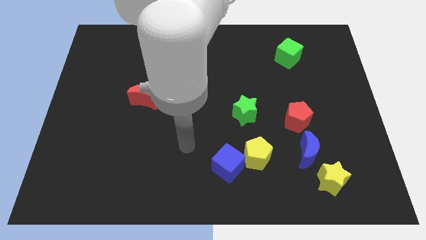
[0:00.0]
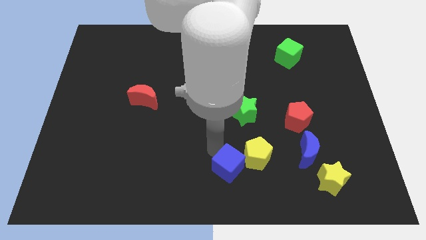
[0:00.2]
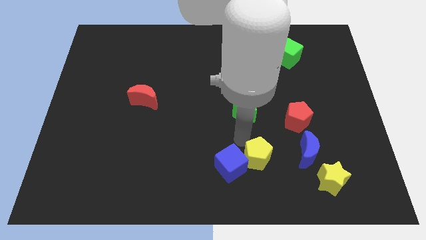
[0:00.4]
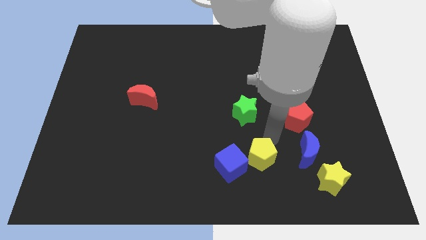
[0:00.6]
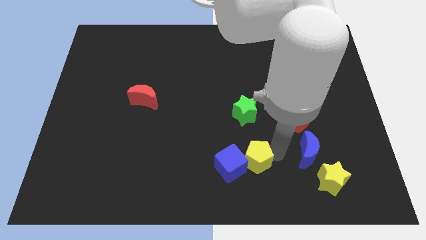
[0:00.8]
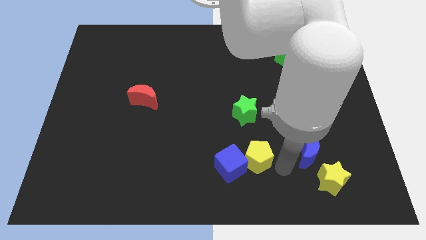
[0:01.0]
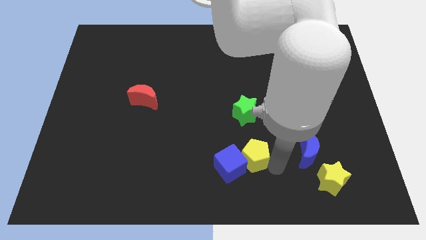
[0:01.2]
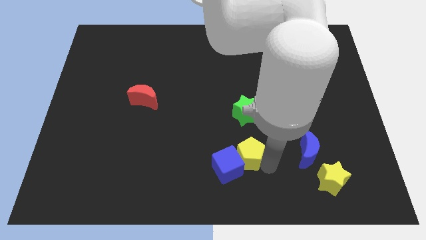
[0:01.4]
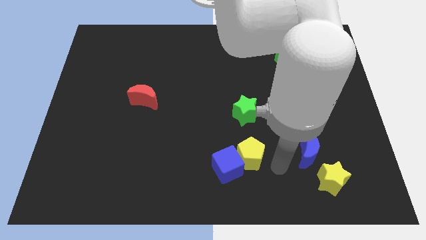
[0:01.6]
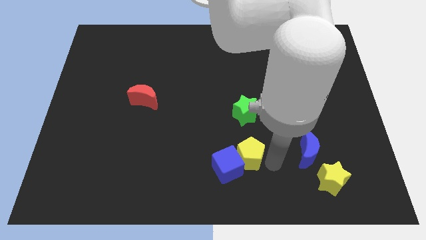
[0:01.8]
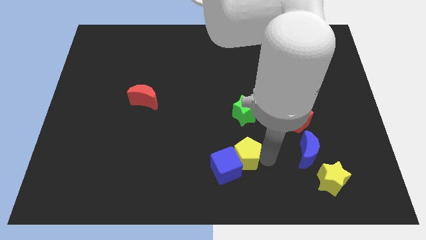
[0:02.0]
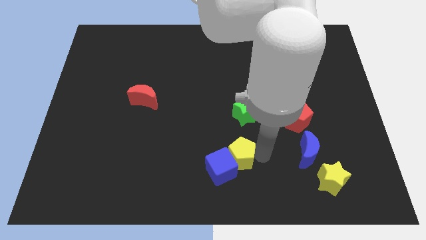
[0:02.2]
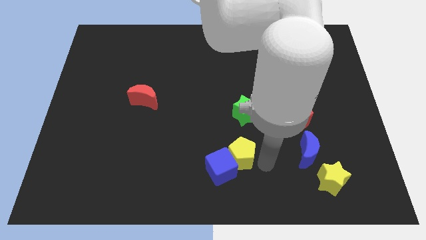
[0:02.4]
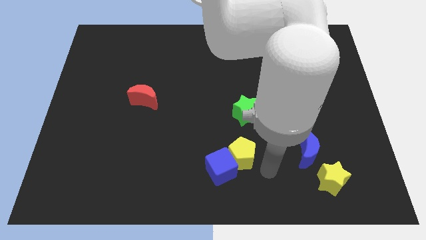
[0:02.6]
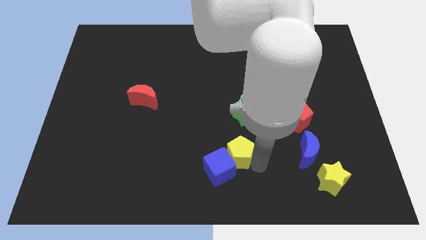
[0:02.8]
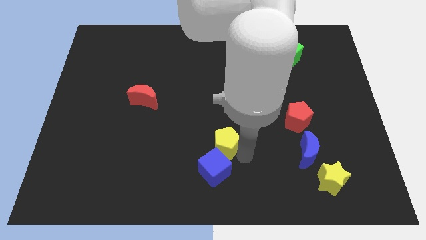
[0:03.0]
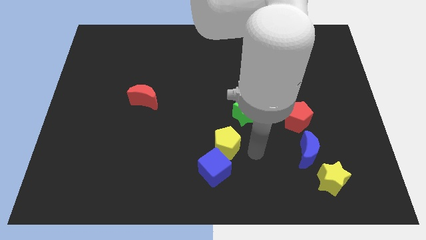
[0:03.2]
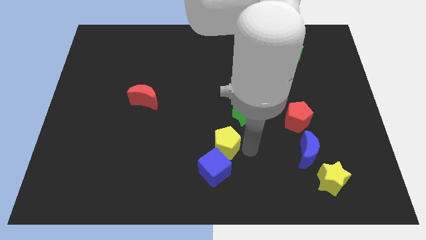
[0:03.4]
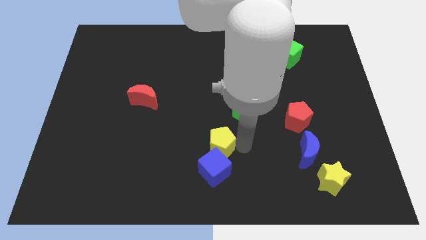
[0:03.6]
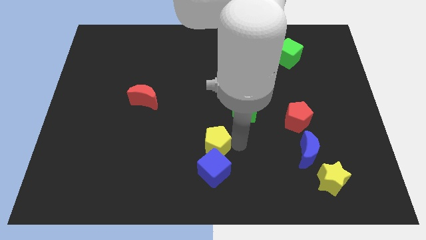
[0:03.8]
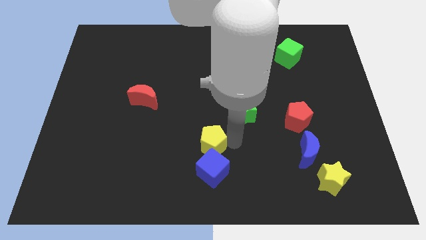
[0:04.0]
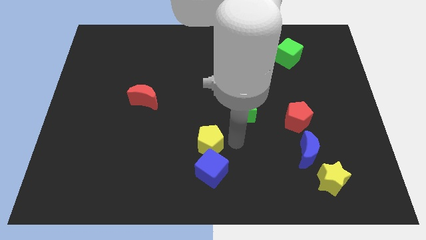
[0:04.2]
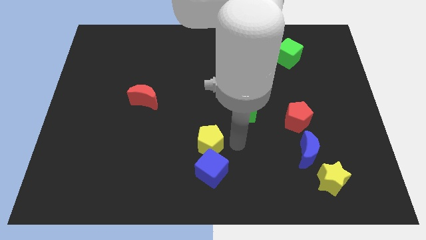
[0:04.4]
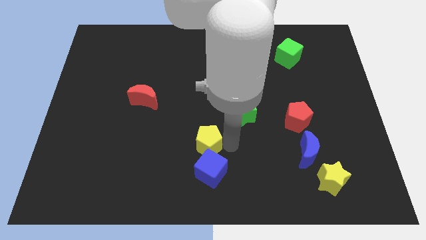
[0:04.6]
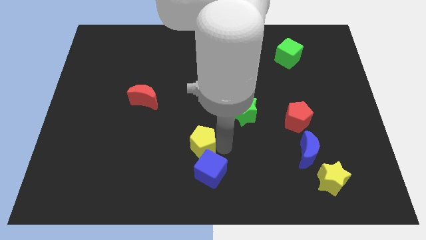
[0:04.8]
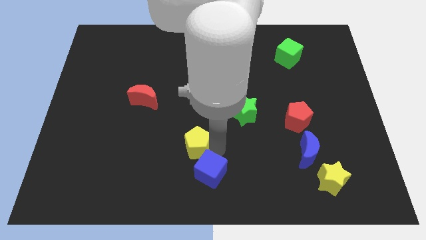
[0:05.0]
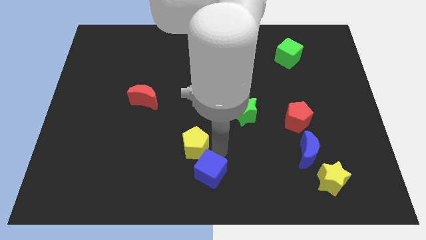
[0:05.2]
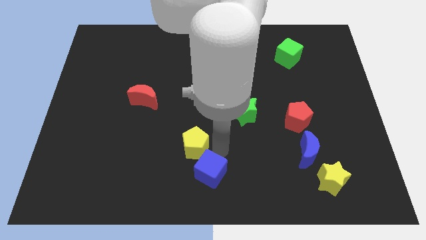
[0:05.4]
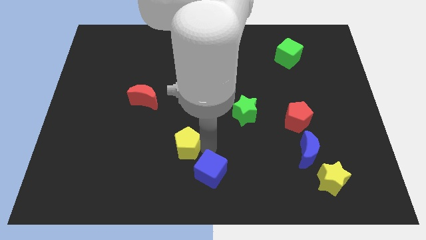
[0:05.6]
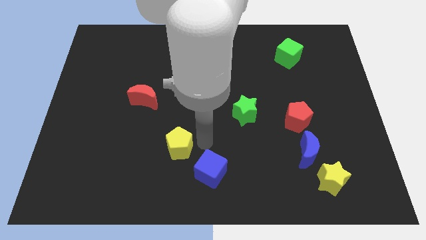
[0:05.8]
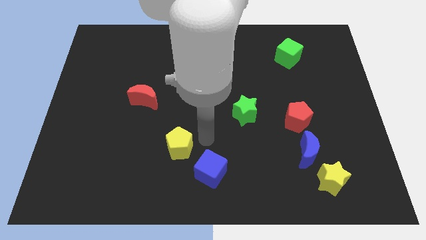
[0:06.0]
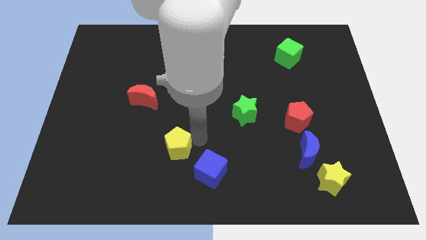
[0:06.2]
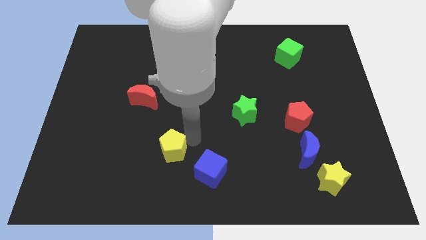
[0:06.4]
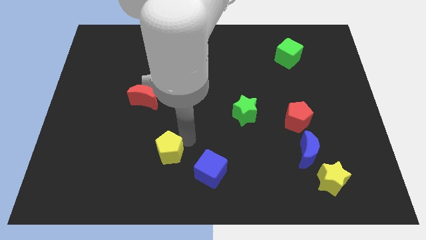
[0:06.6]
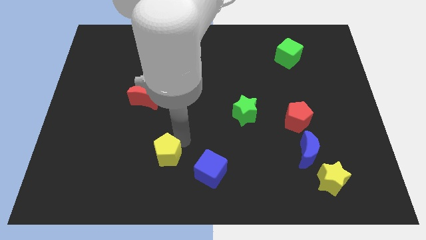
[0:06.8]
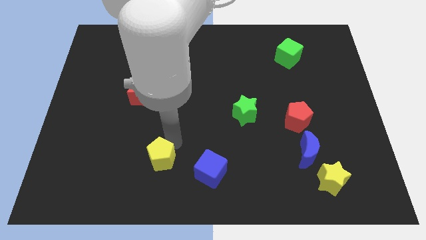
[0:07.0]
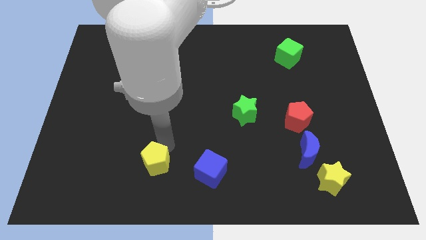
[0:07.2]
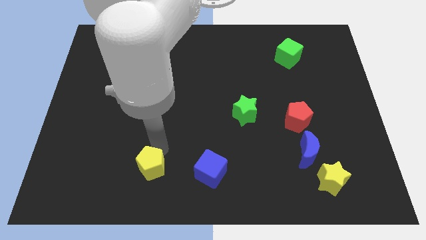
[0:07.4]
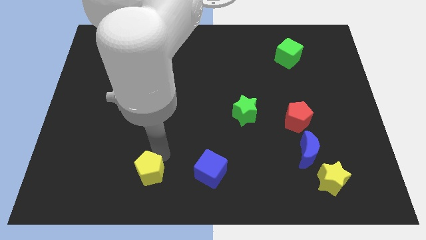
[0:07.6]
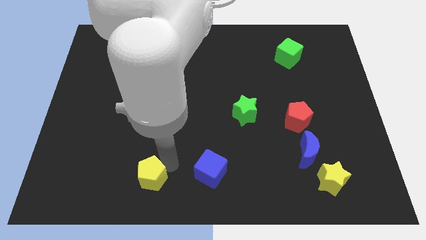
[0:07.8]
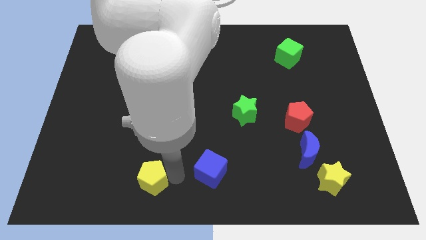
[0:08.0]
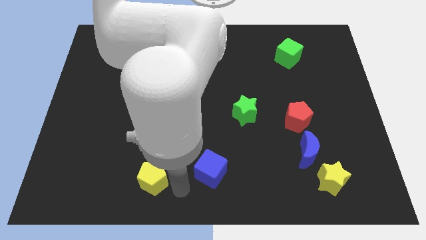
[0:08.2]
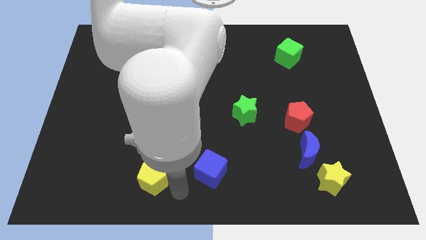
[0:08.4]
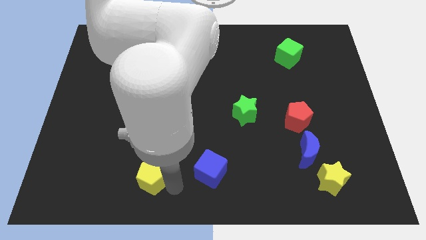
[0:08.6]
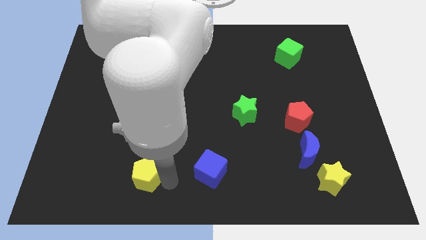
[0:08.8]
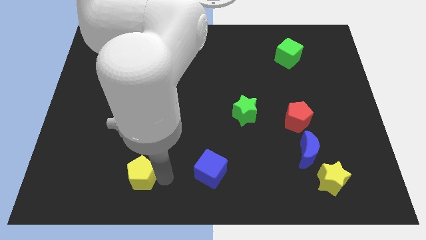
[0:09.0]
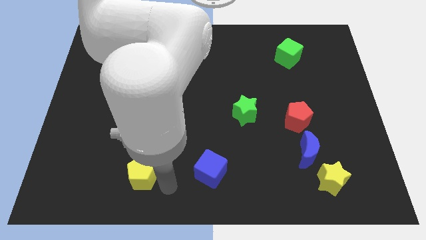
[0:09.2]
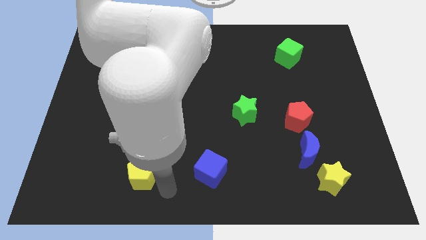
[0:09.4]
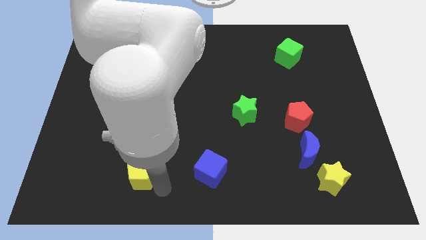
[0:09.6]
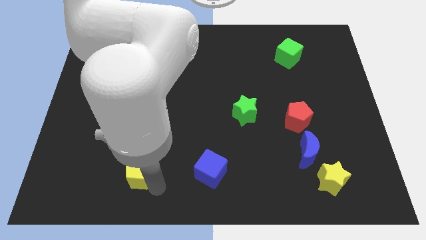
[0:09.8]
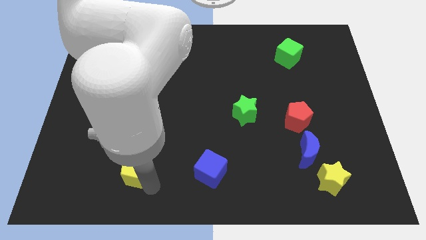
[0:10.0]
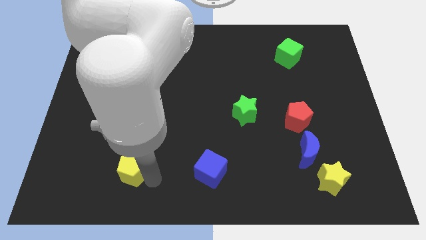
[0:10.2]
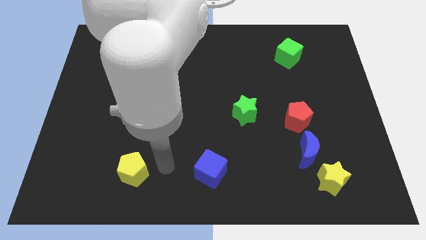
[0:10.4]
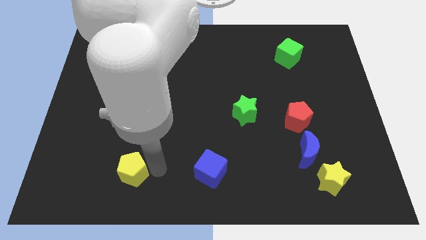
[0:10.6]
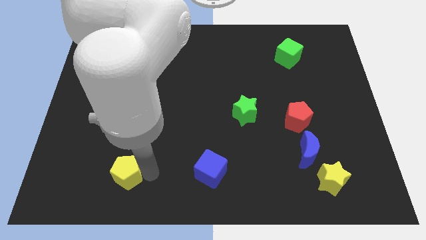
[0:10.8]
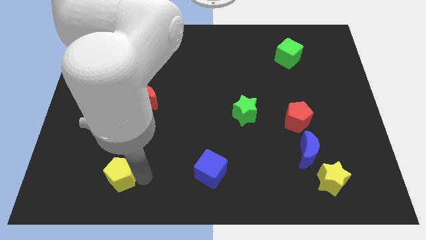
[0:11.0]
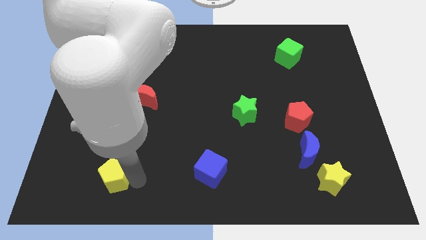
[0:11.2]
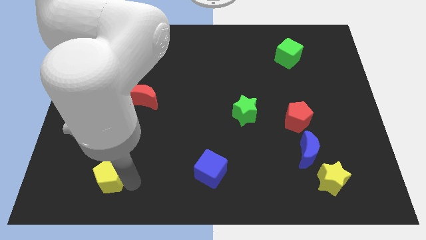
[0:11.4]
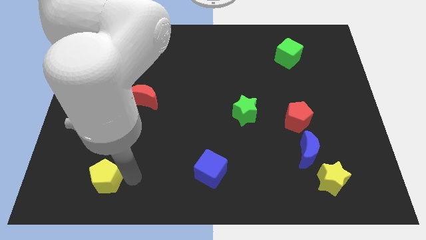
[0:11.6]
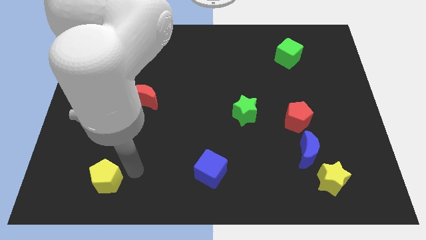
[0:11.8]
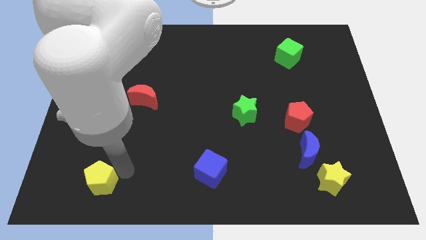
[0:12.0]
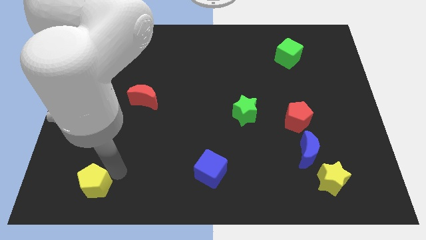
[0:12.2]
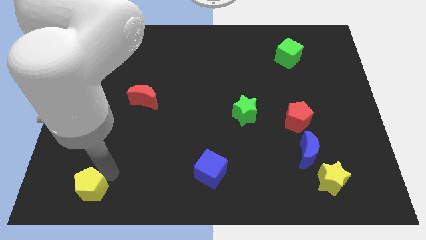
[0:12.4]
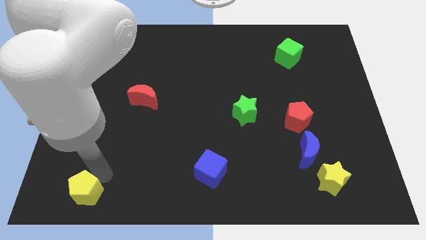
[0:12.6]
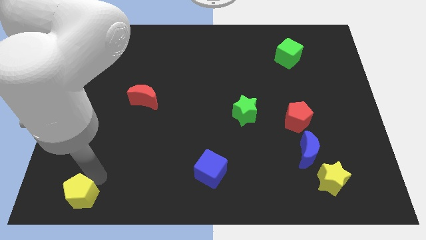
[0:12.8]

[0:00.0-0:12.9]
slide the yellow pentagon to the bottom left corner
